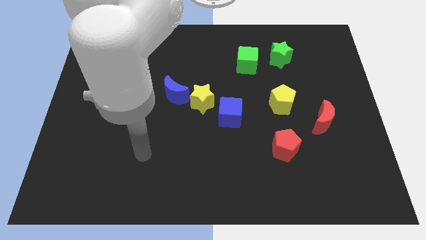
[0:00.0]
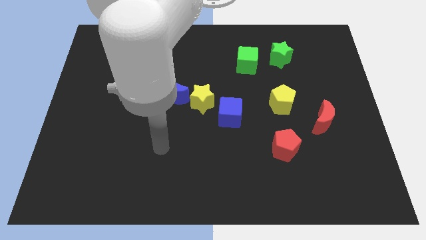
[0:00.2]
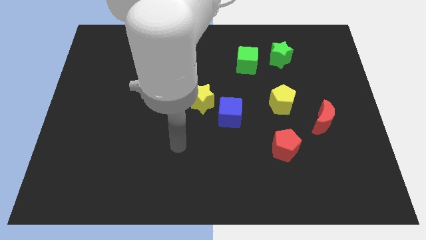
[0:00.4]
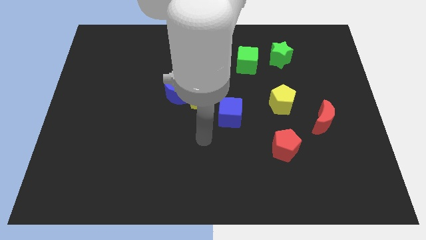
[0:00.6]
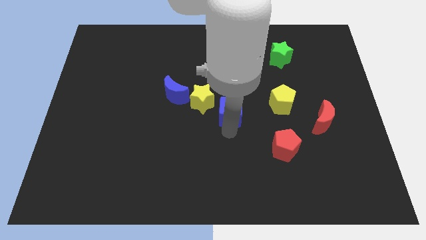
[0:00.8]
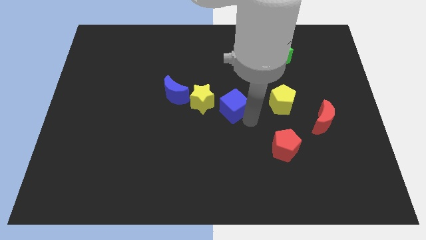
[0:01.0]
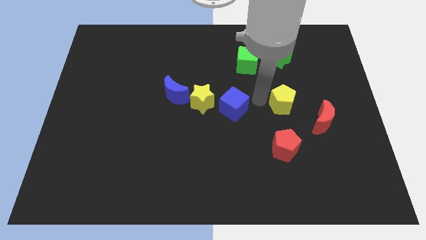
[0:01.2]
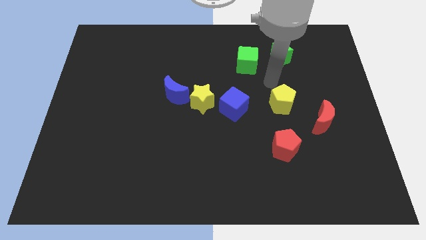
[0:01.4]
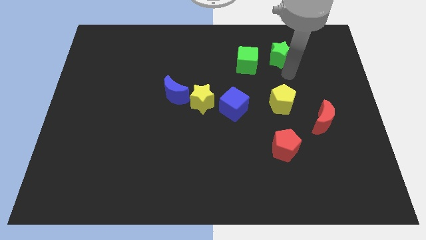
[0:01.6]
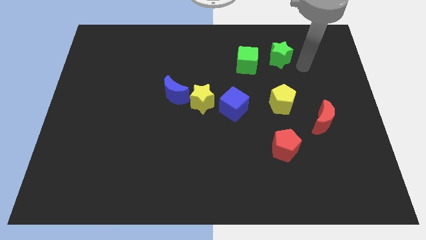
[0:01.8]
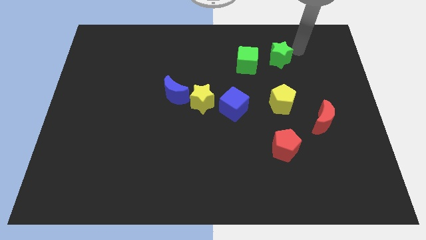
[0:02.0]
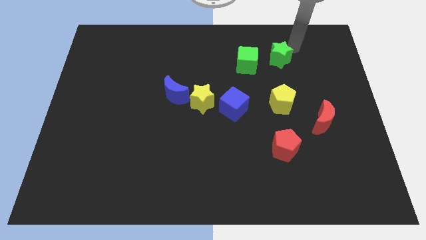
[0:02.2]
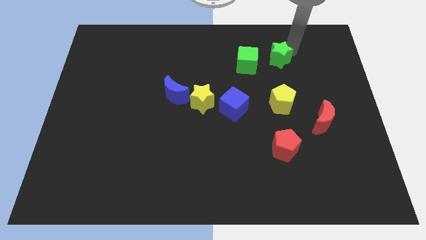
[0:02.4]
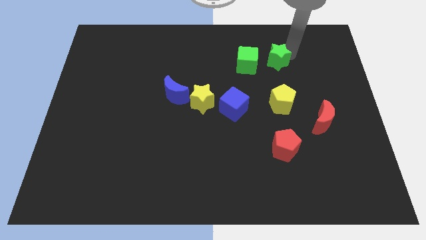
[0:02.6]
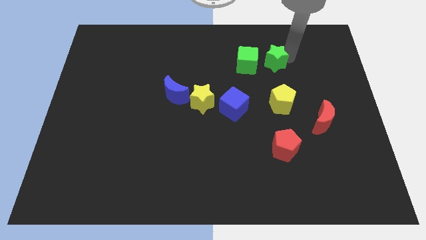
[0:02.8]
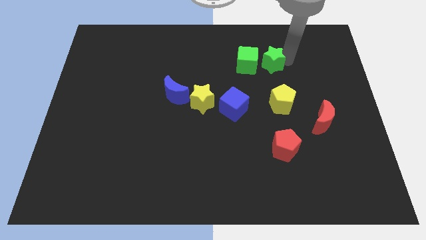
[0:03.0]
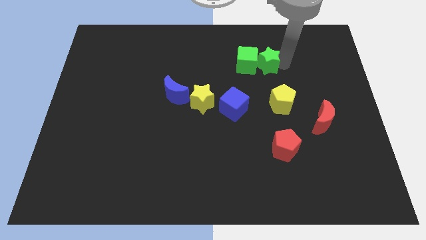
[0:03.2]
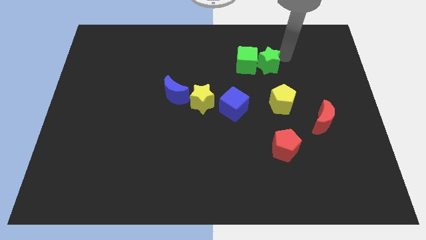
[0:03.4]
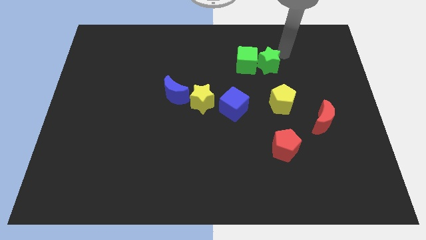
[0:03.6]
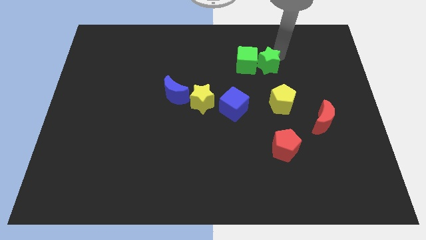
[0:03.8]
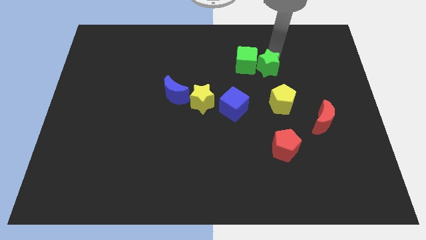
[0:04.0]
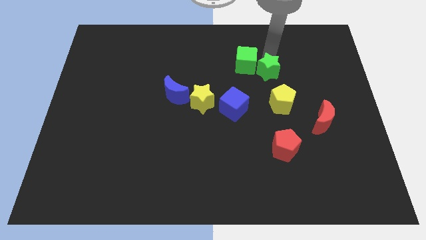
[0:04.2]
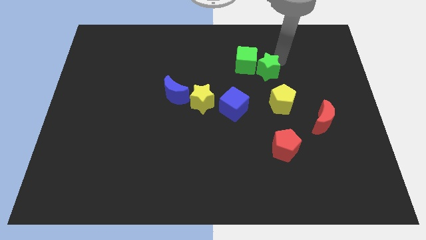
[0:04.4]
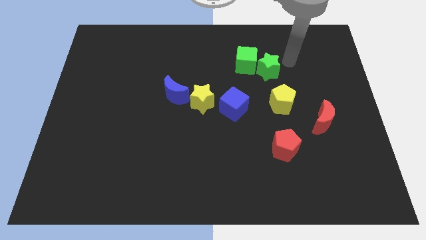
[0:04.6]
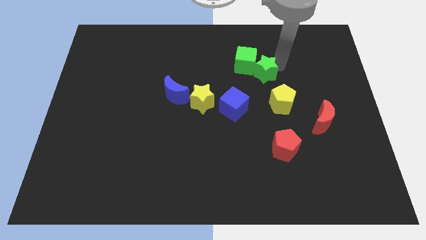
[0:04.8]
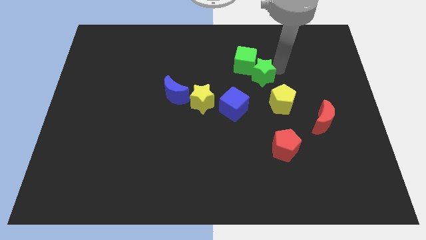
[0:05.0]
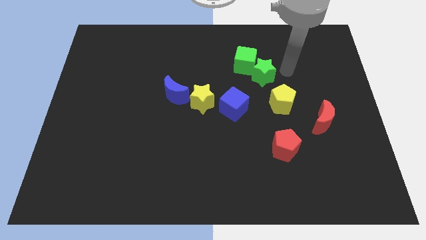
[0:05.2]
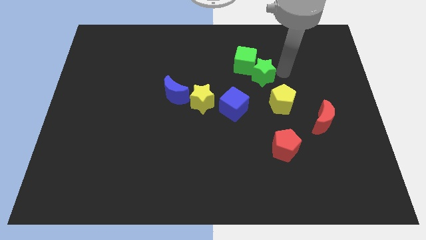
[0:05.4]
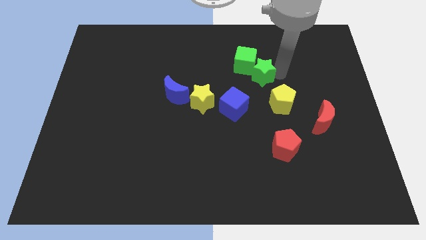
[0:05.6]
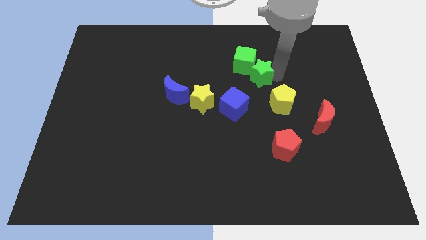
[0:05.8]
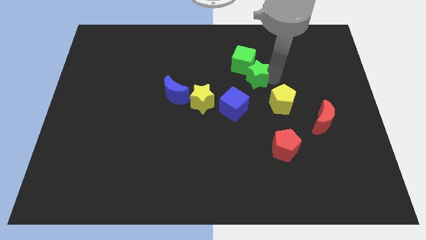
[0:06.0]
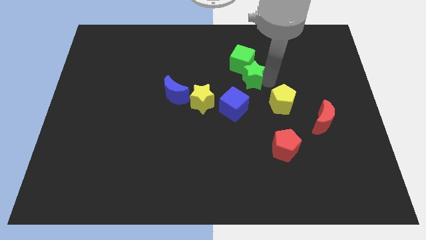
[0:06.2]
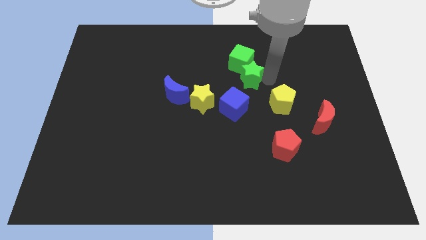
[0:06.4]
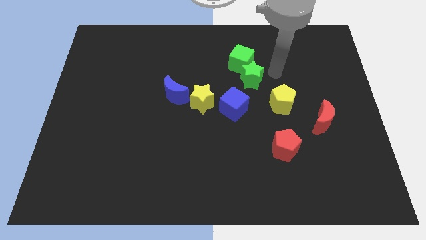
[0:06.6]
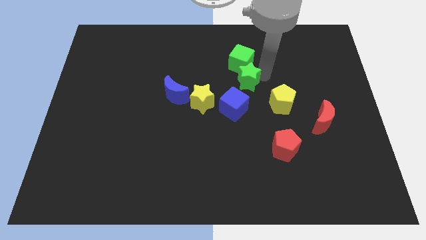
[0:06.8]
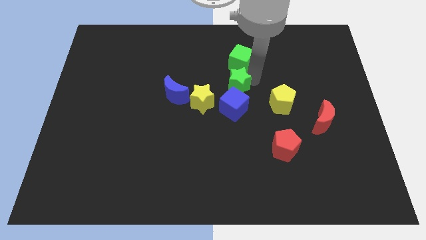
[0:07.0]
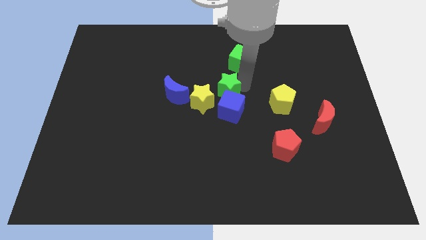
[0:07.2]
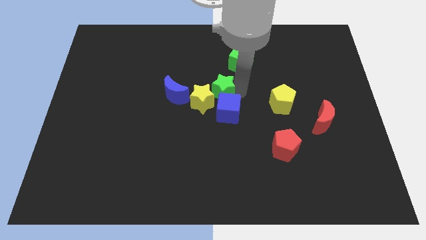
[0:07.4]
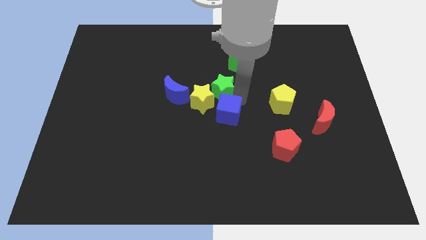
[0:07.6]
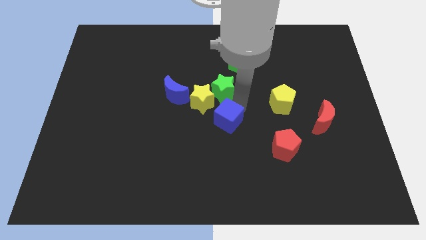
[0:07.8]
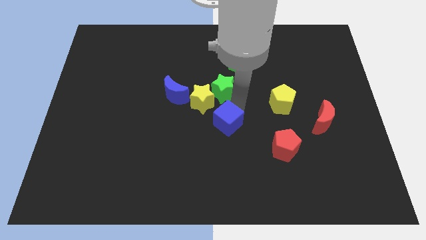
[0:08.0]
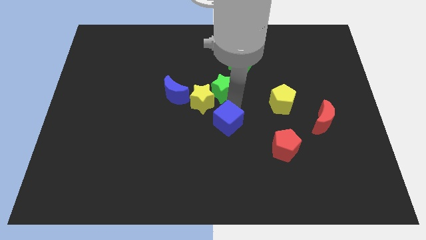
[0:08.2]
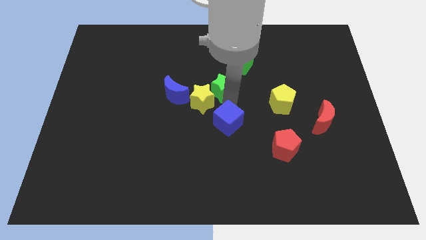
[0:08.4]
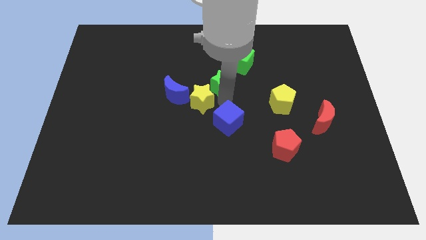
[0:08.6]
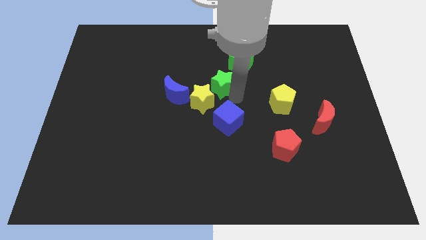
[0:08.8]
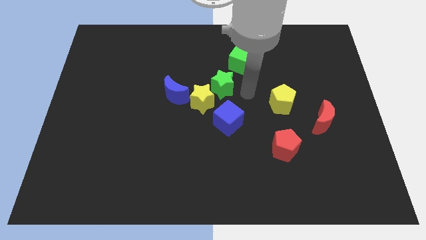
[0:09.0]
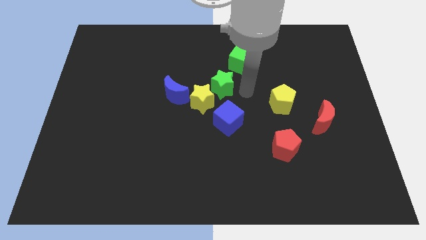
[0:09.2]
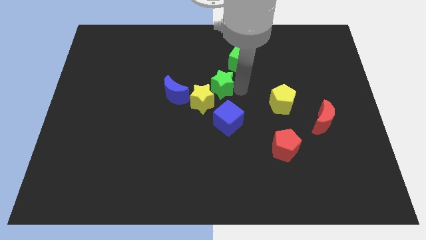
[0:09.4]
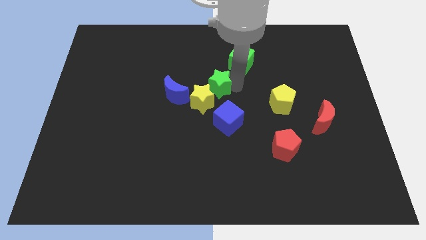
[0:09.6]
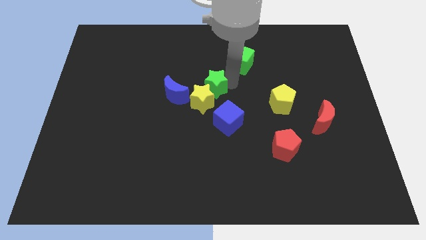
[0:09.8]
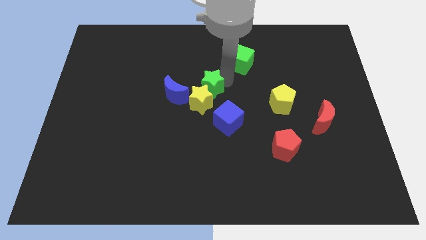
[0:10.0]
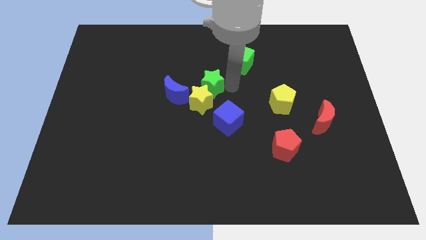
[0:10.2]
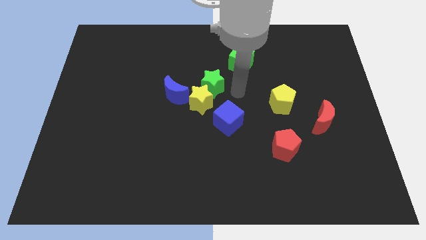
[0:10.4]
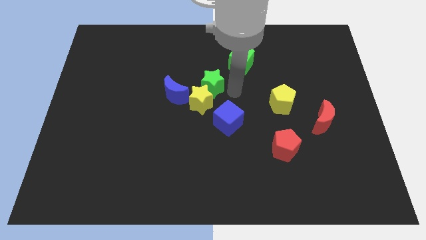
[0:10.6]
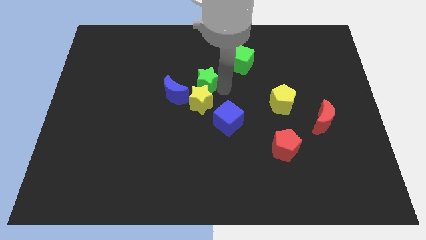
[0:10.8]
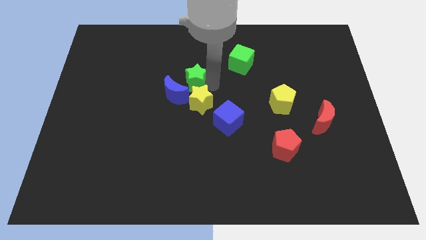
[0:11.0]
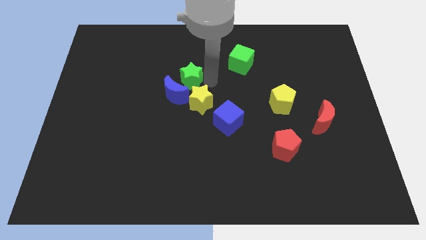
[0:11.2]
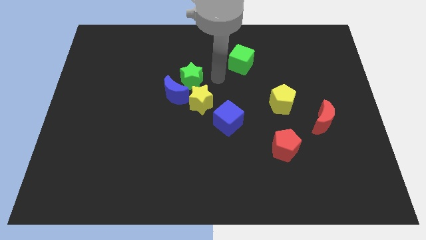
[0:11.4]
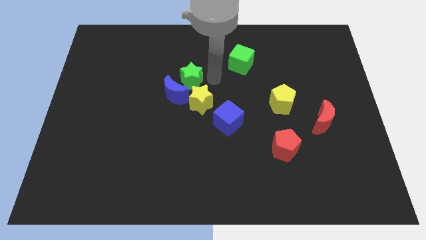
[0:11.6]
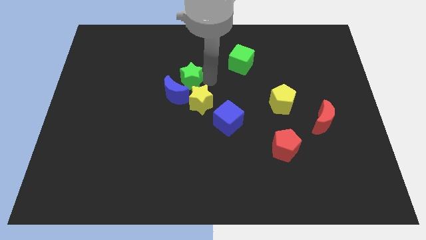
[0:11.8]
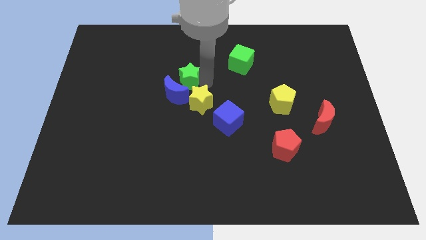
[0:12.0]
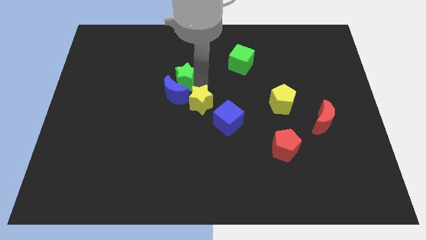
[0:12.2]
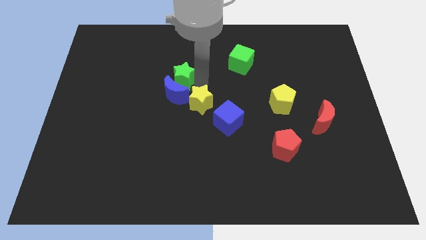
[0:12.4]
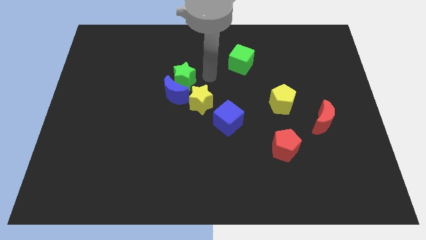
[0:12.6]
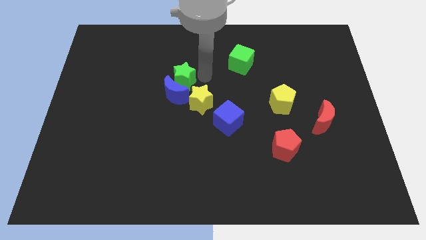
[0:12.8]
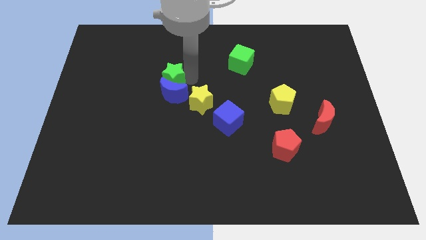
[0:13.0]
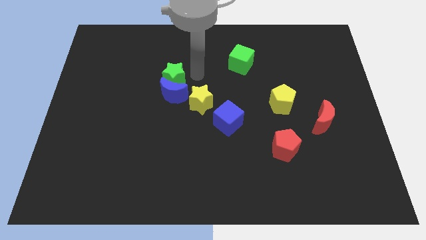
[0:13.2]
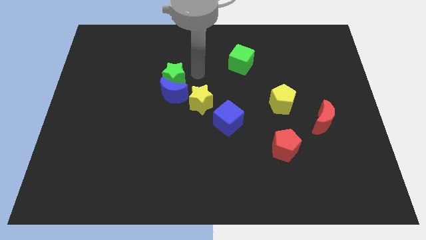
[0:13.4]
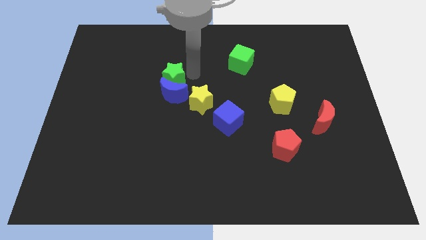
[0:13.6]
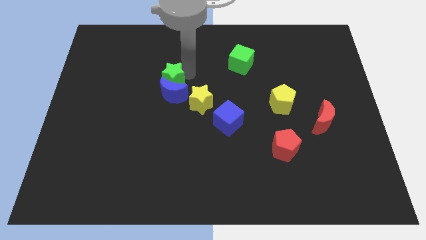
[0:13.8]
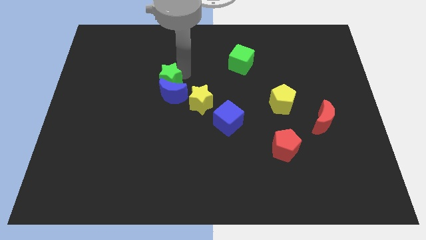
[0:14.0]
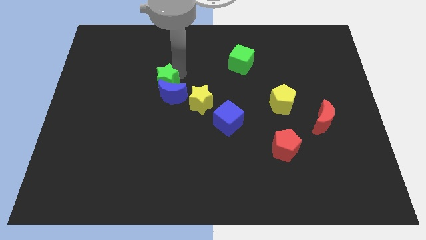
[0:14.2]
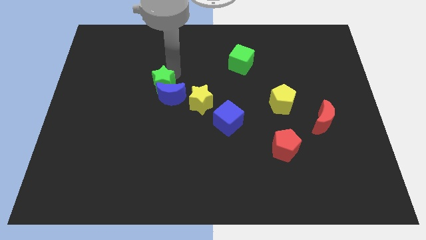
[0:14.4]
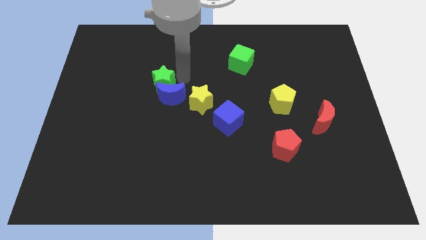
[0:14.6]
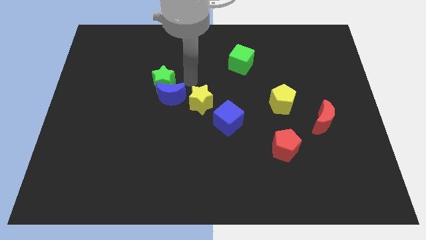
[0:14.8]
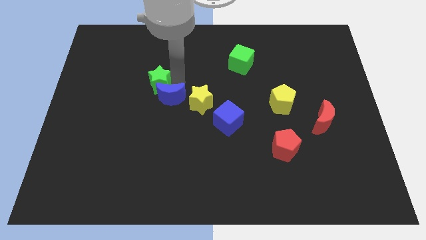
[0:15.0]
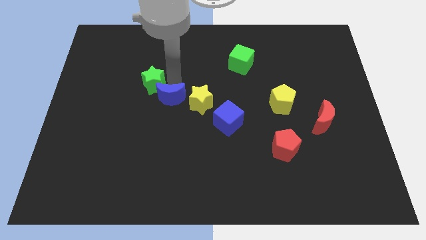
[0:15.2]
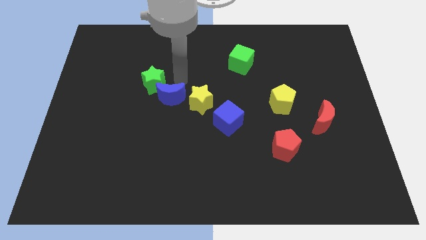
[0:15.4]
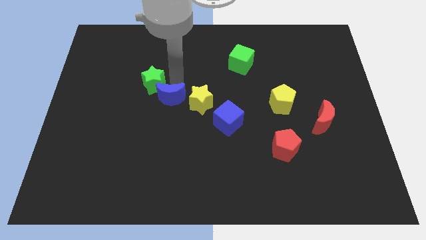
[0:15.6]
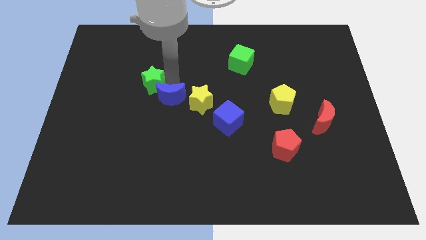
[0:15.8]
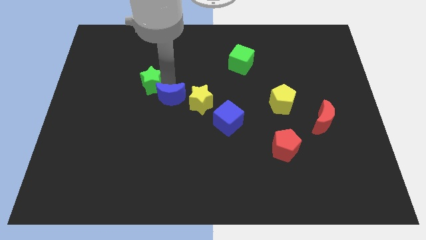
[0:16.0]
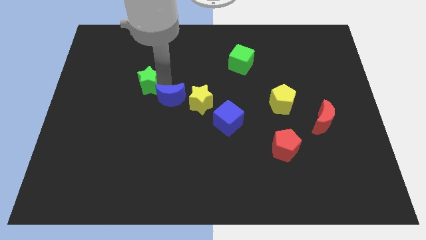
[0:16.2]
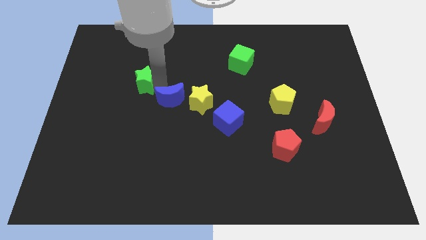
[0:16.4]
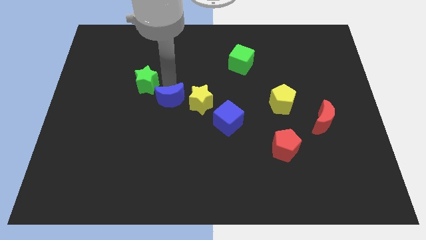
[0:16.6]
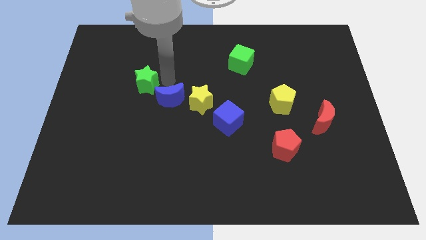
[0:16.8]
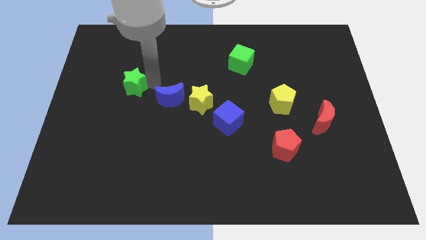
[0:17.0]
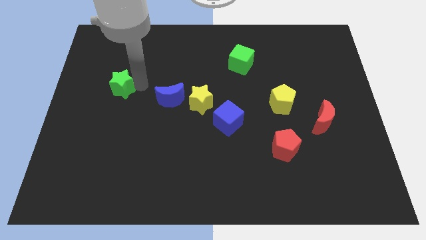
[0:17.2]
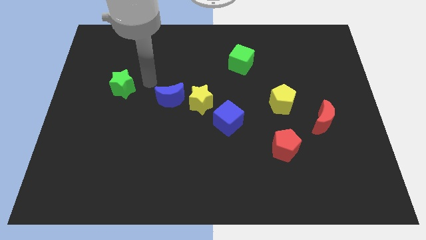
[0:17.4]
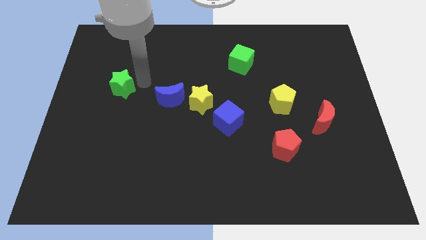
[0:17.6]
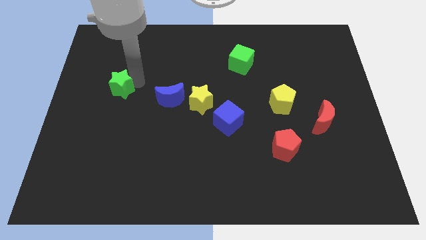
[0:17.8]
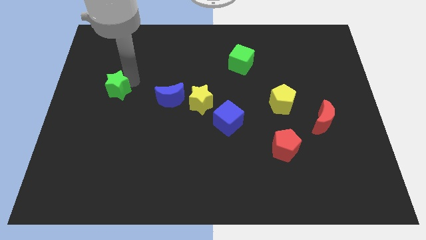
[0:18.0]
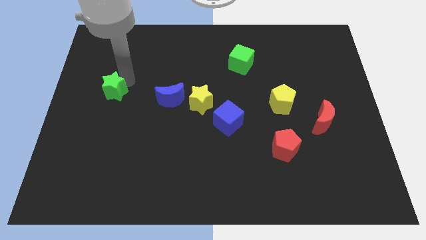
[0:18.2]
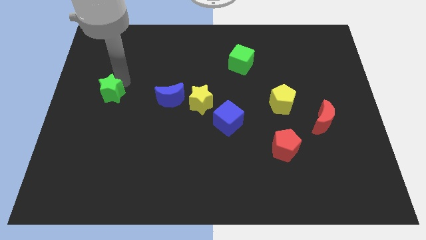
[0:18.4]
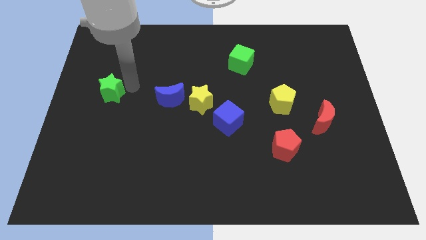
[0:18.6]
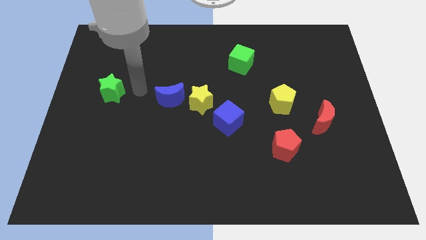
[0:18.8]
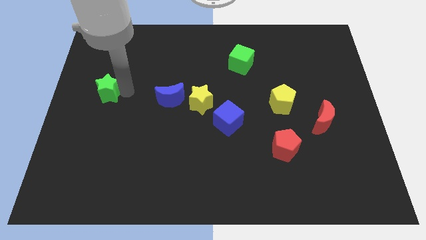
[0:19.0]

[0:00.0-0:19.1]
slide the green star to the left side of the board
